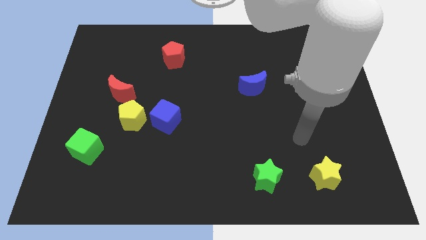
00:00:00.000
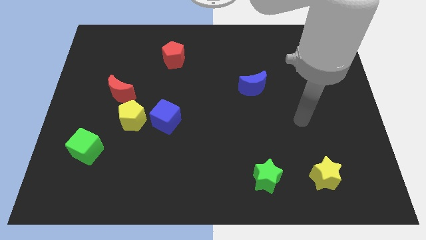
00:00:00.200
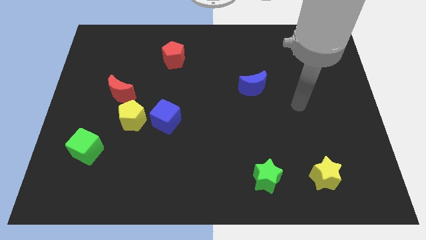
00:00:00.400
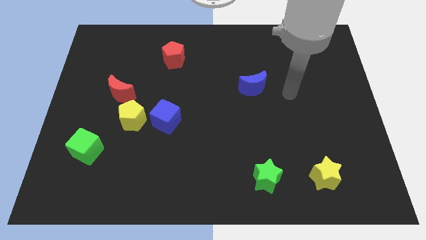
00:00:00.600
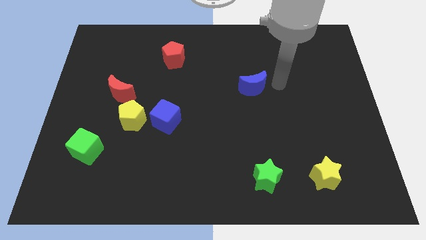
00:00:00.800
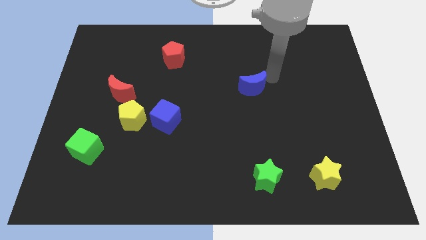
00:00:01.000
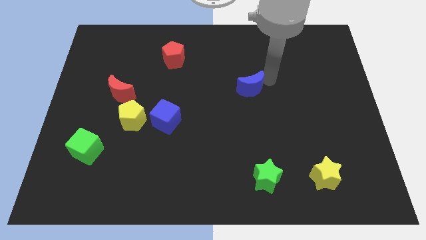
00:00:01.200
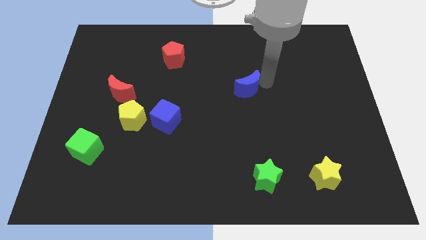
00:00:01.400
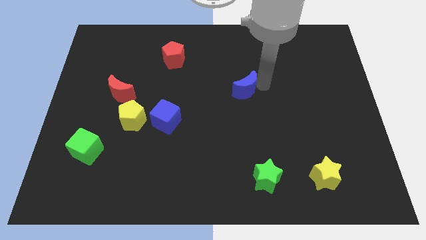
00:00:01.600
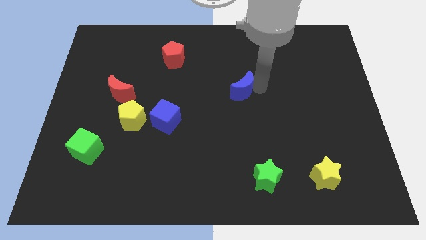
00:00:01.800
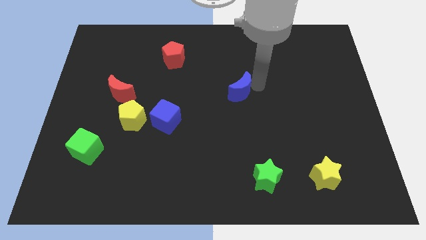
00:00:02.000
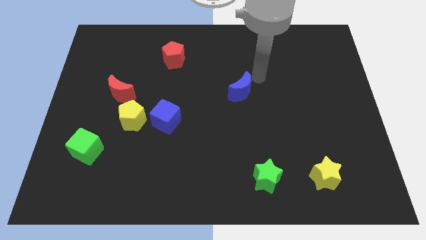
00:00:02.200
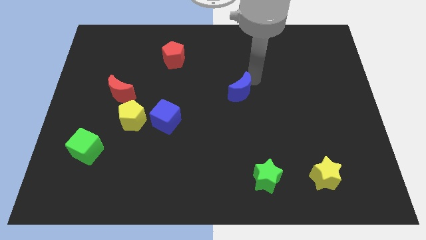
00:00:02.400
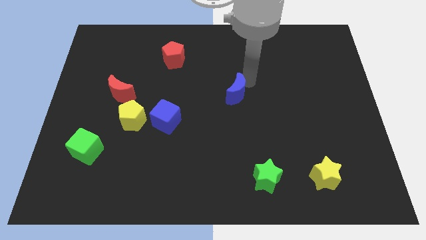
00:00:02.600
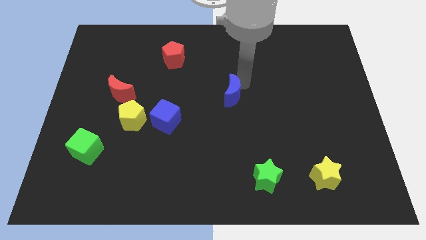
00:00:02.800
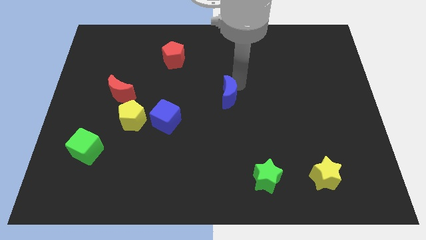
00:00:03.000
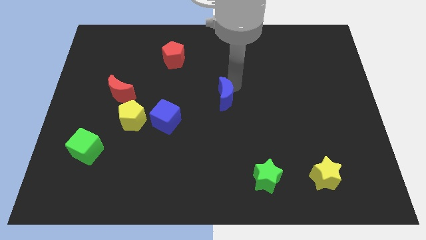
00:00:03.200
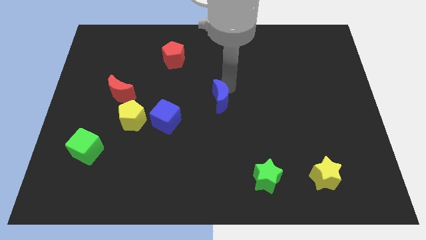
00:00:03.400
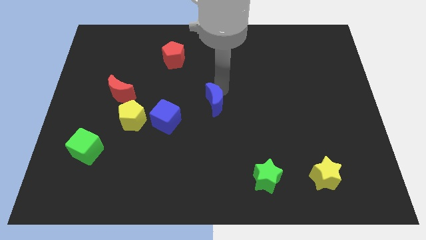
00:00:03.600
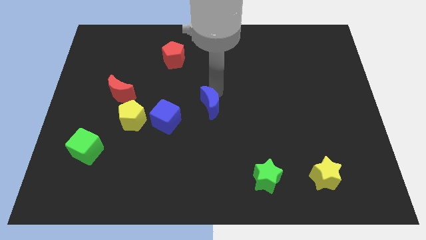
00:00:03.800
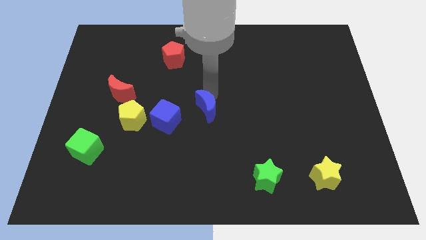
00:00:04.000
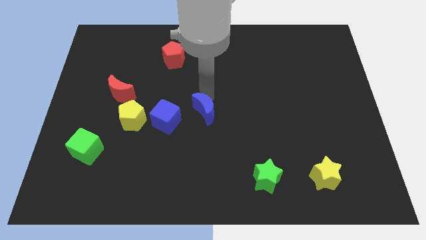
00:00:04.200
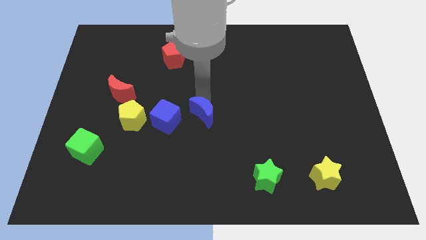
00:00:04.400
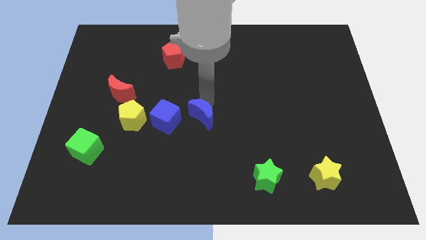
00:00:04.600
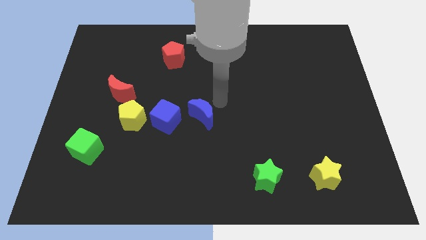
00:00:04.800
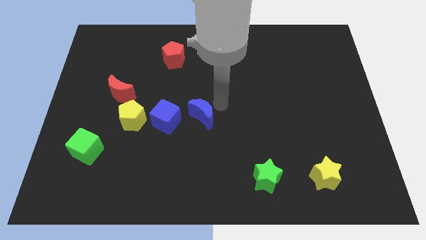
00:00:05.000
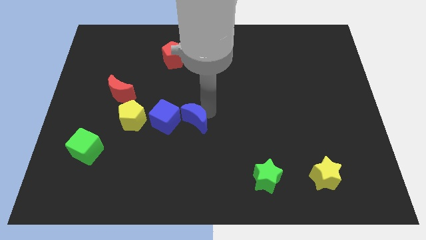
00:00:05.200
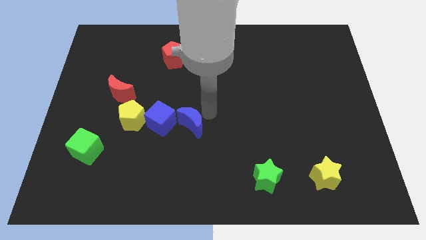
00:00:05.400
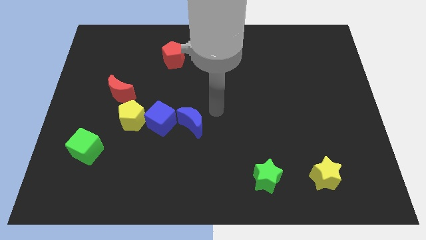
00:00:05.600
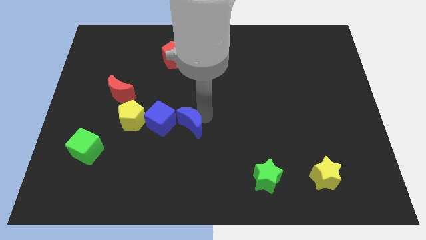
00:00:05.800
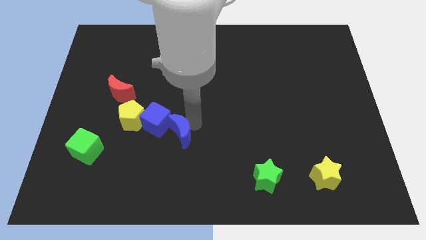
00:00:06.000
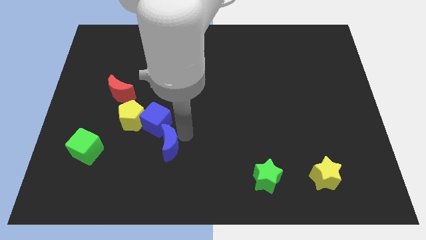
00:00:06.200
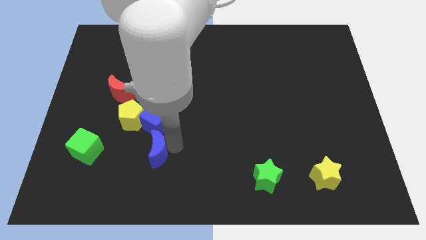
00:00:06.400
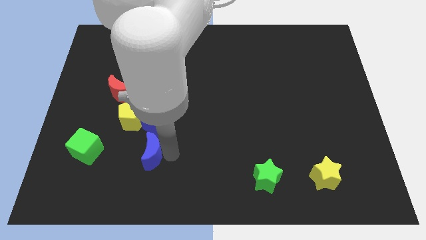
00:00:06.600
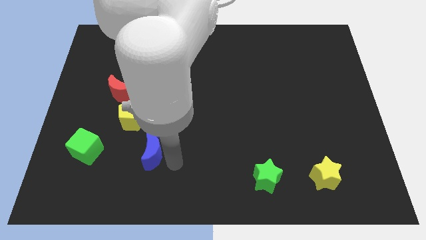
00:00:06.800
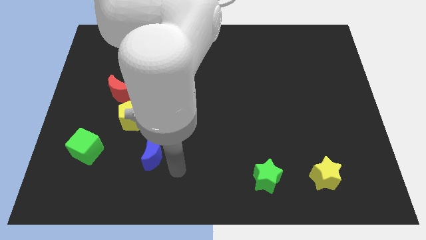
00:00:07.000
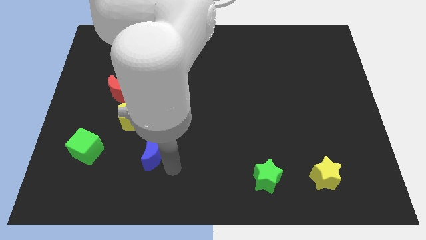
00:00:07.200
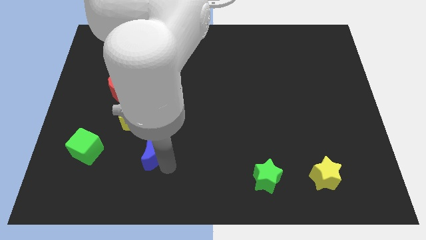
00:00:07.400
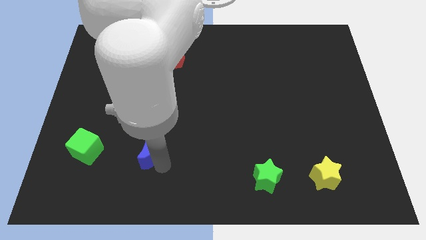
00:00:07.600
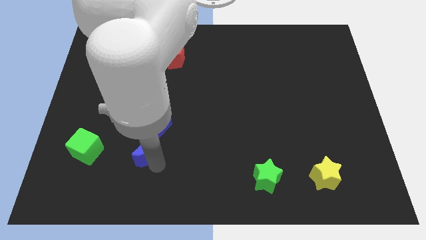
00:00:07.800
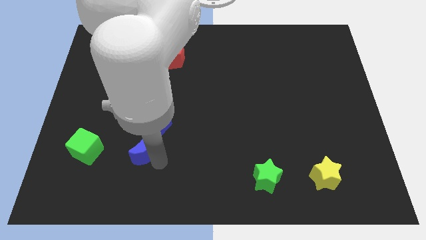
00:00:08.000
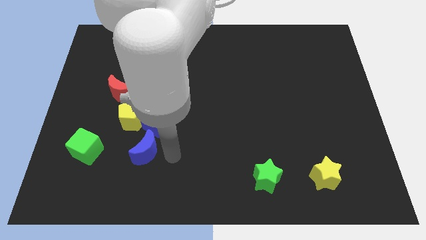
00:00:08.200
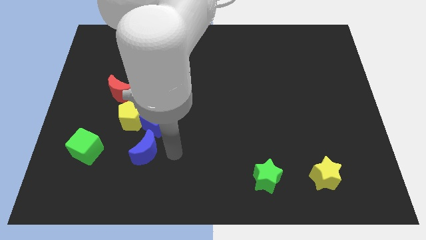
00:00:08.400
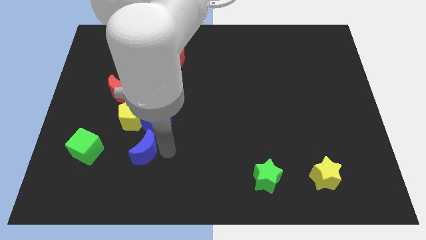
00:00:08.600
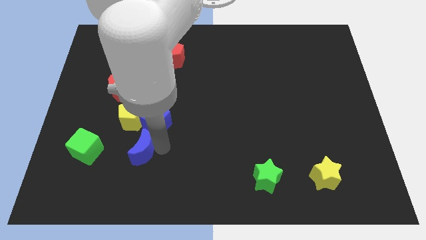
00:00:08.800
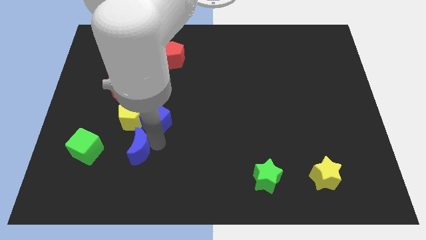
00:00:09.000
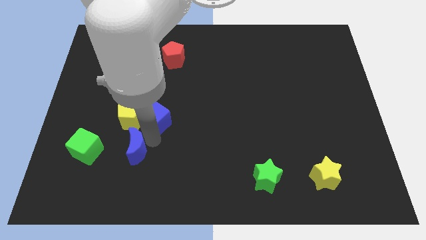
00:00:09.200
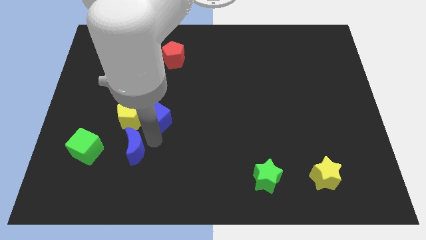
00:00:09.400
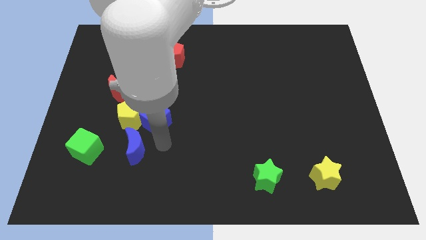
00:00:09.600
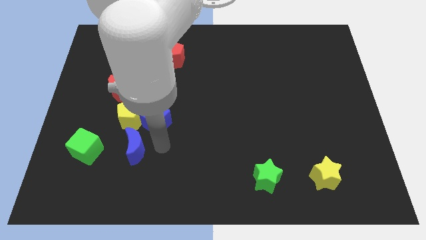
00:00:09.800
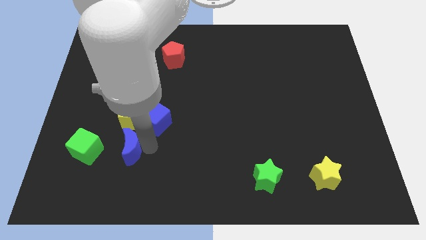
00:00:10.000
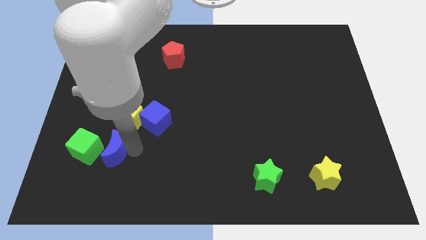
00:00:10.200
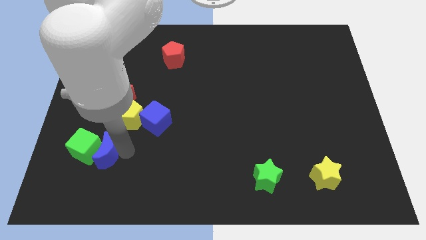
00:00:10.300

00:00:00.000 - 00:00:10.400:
put the blue moon next to the green cube

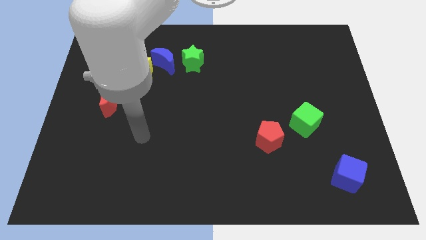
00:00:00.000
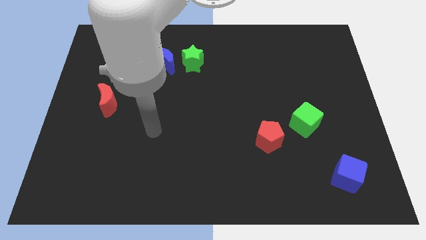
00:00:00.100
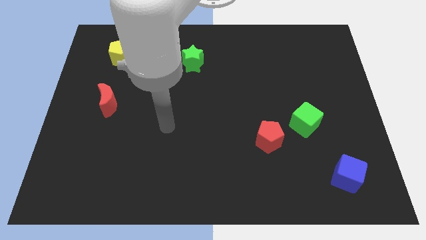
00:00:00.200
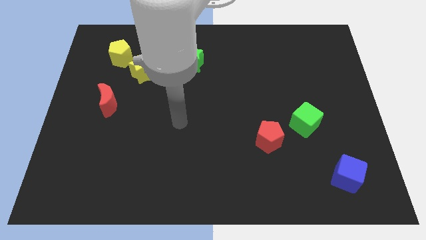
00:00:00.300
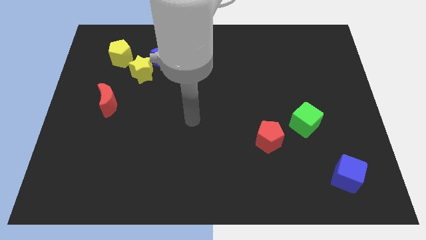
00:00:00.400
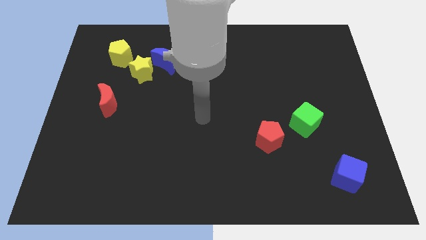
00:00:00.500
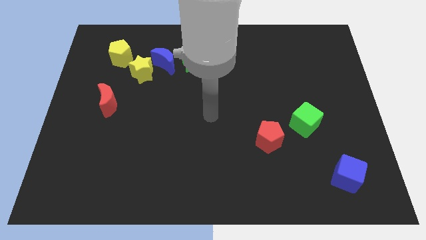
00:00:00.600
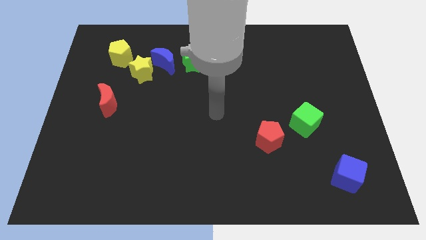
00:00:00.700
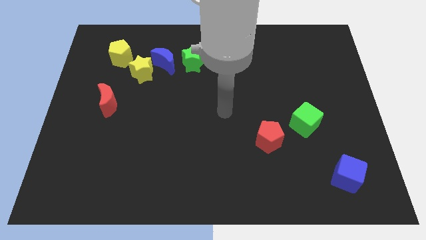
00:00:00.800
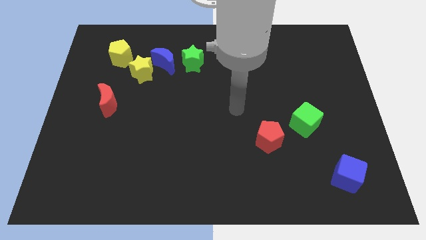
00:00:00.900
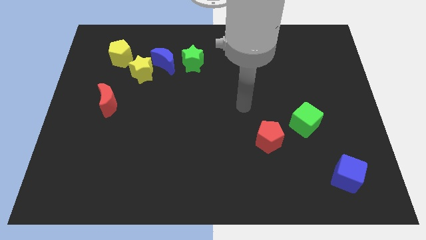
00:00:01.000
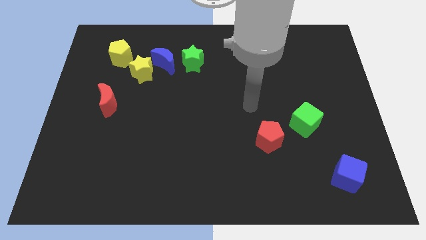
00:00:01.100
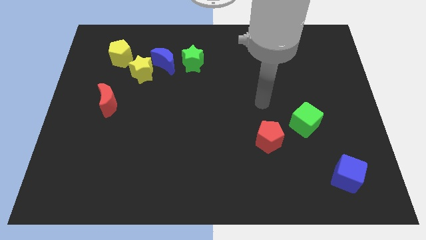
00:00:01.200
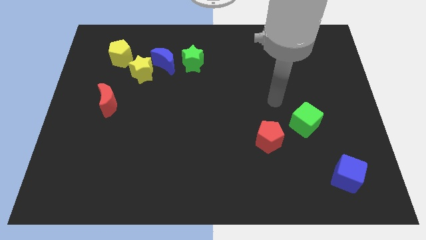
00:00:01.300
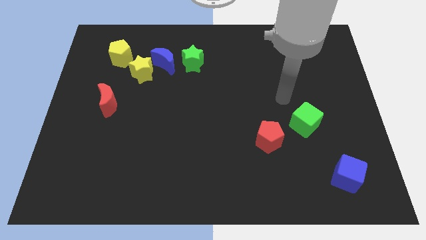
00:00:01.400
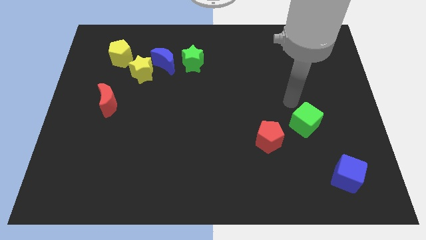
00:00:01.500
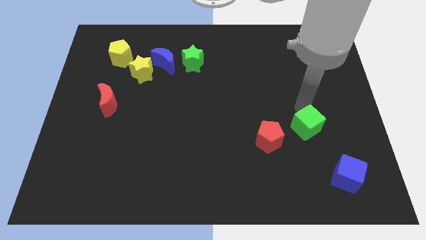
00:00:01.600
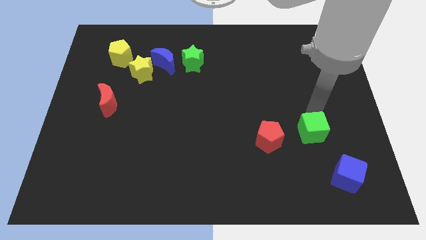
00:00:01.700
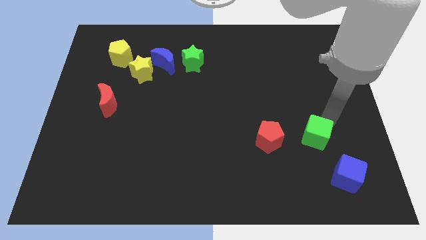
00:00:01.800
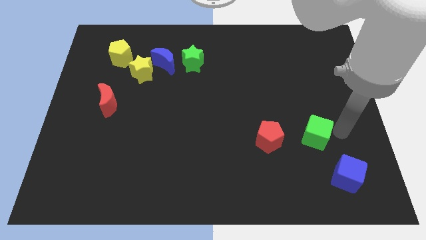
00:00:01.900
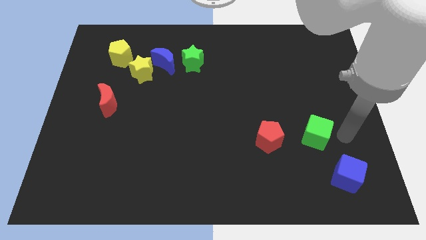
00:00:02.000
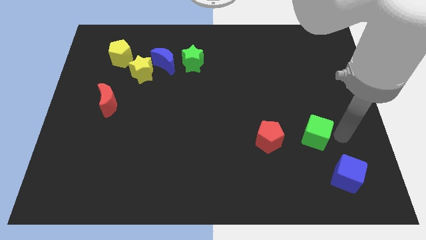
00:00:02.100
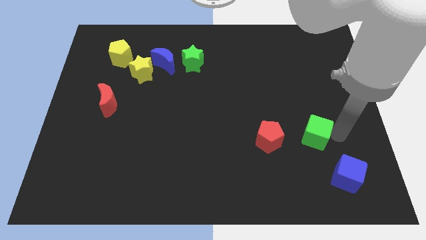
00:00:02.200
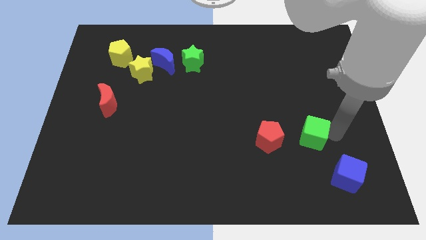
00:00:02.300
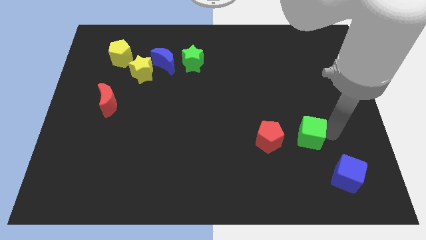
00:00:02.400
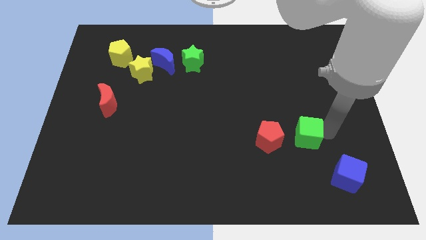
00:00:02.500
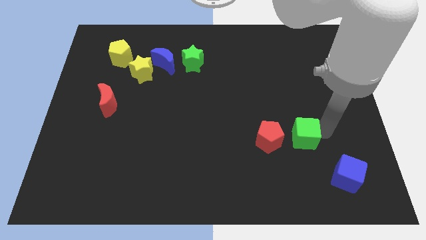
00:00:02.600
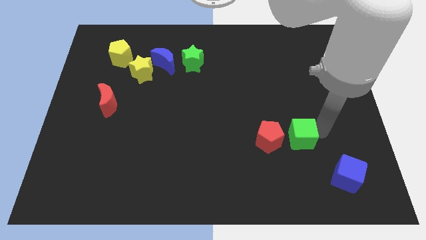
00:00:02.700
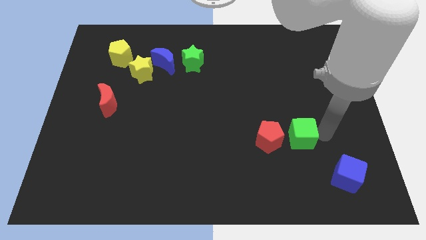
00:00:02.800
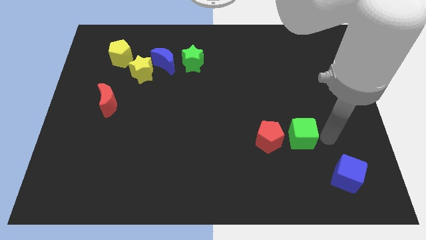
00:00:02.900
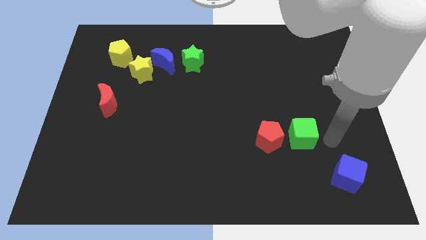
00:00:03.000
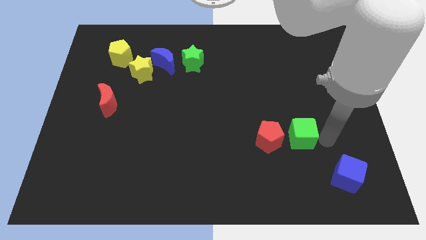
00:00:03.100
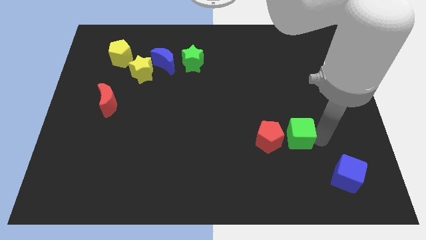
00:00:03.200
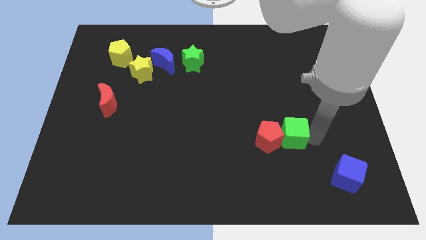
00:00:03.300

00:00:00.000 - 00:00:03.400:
slide the green cube close to the red pentagon
